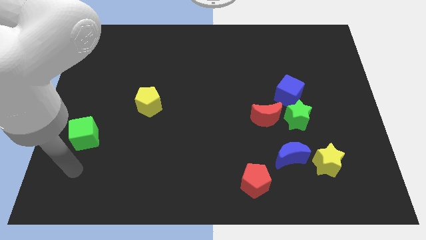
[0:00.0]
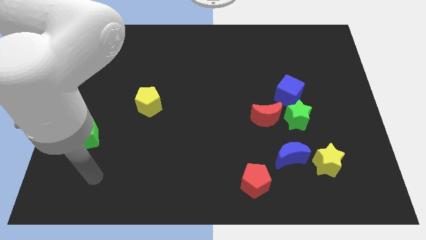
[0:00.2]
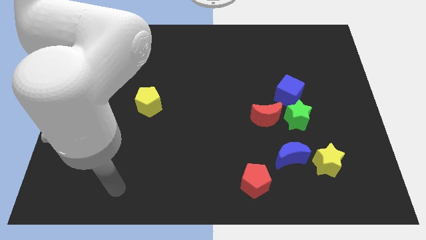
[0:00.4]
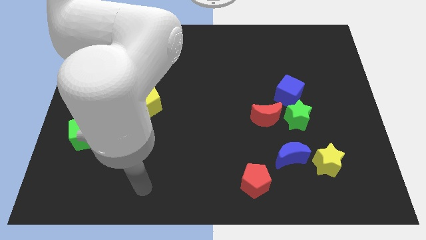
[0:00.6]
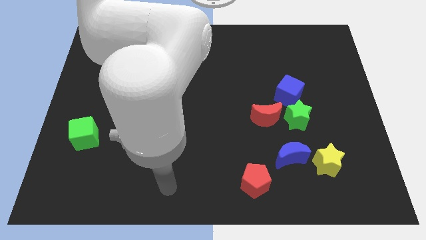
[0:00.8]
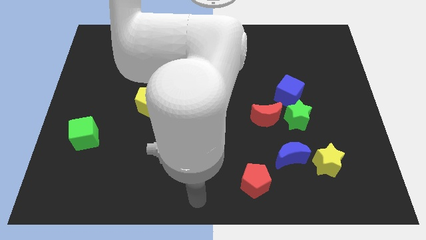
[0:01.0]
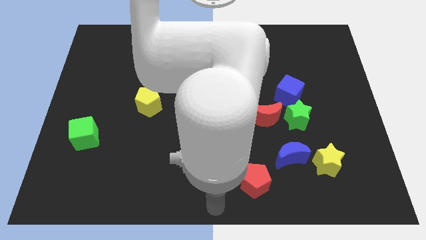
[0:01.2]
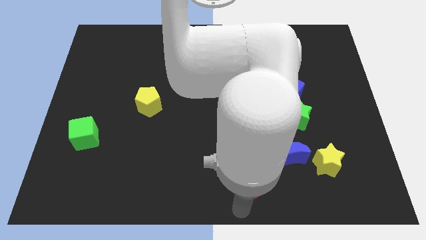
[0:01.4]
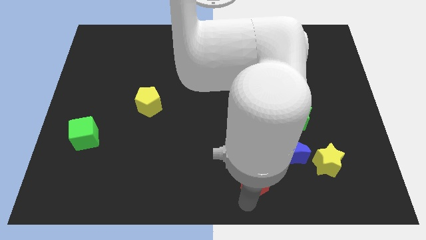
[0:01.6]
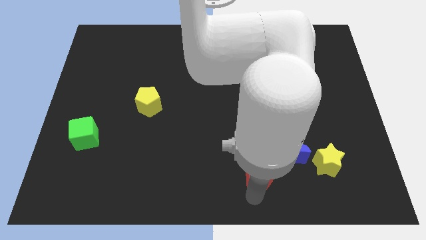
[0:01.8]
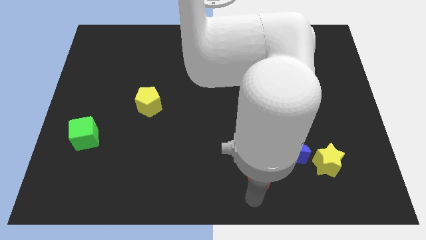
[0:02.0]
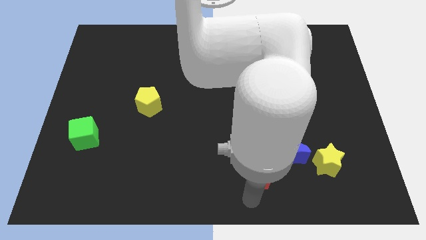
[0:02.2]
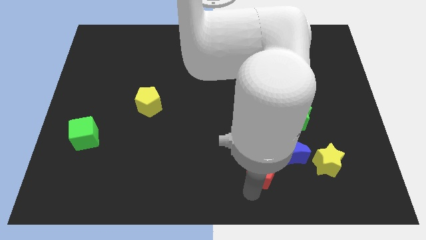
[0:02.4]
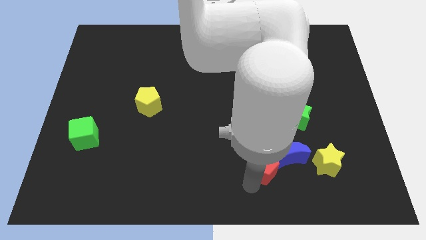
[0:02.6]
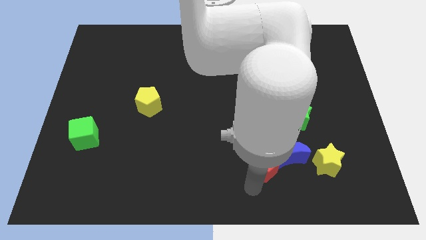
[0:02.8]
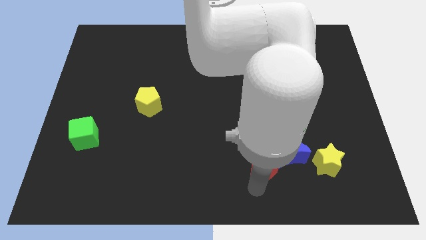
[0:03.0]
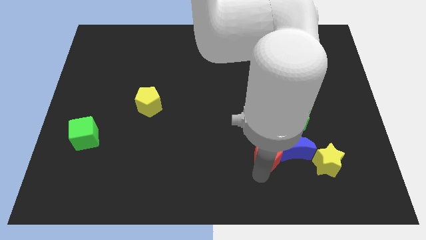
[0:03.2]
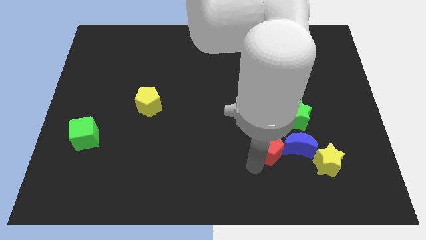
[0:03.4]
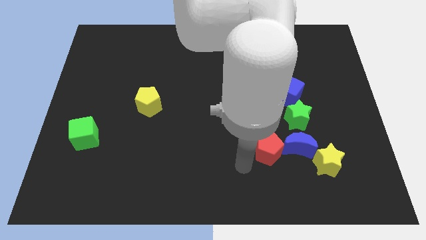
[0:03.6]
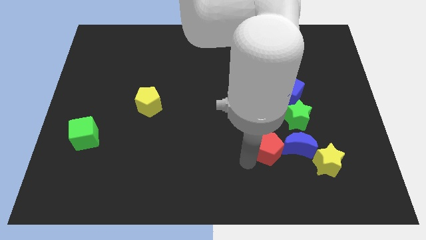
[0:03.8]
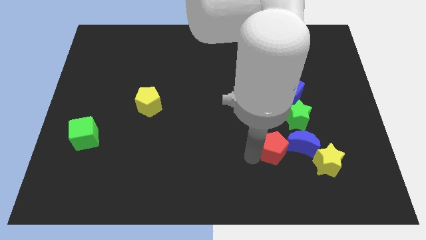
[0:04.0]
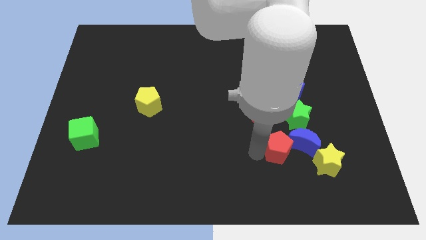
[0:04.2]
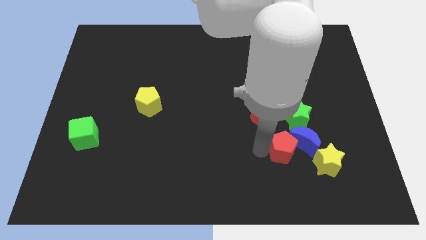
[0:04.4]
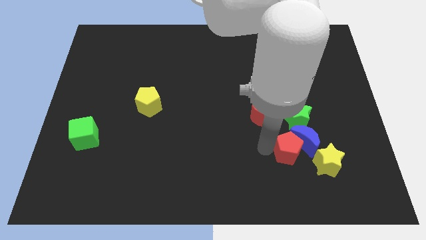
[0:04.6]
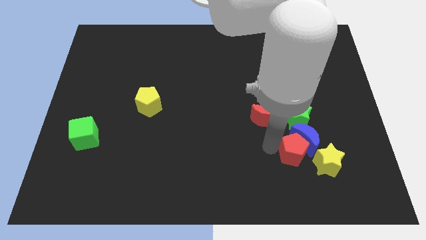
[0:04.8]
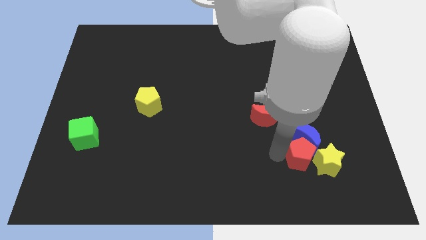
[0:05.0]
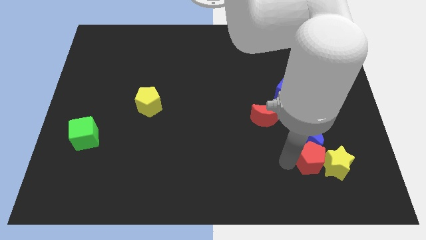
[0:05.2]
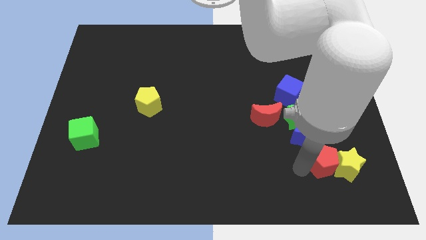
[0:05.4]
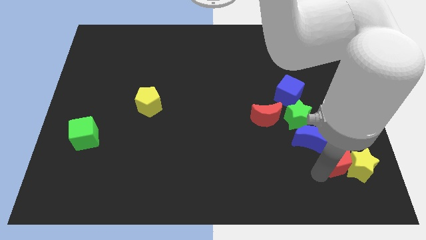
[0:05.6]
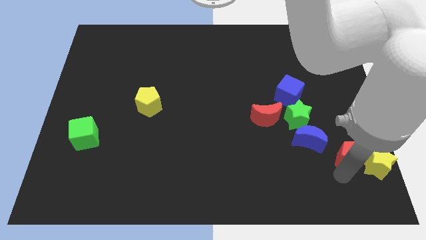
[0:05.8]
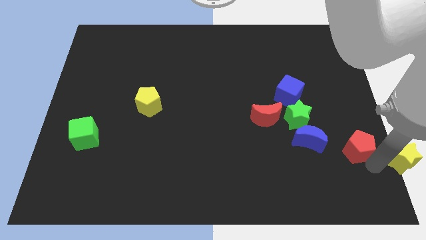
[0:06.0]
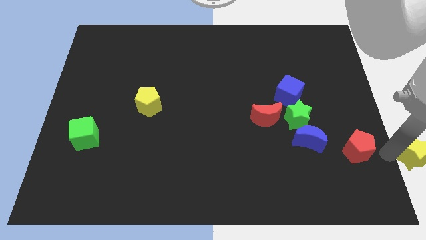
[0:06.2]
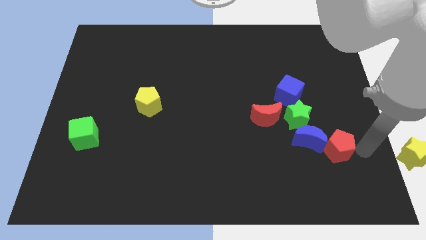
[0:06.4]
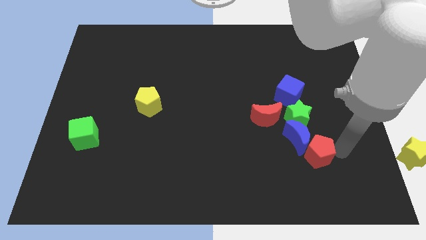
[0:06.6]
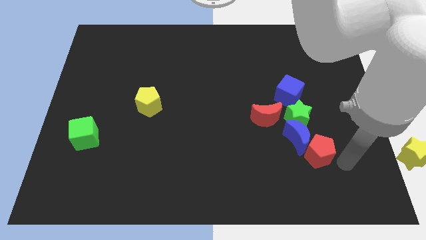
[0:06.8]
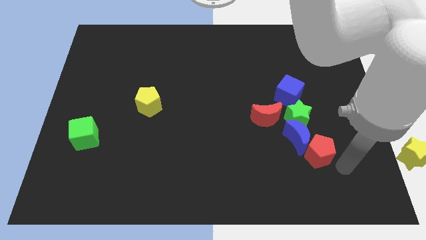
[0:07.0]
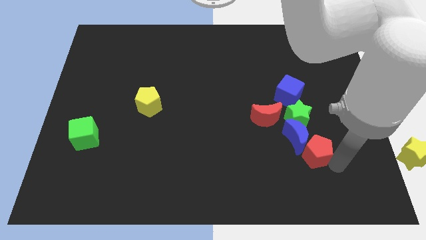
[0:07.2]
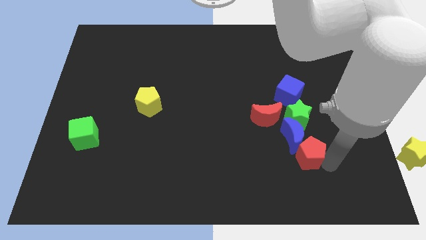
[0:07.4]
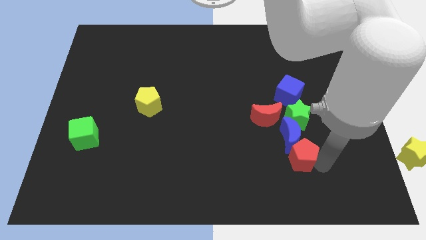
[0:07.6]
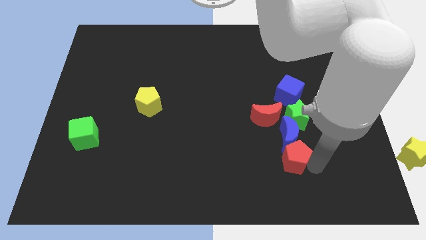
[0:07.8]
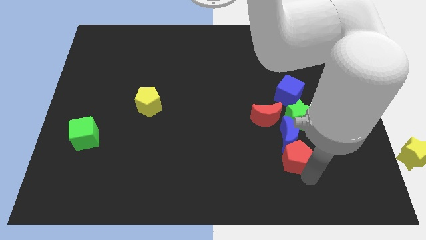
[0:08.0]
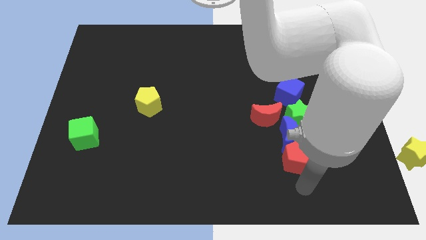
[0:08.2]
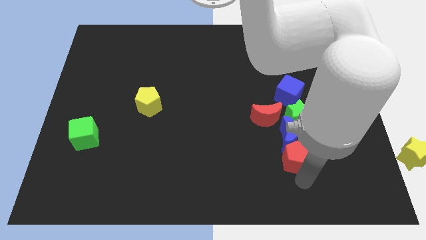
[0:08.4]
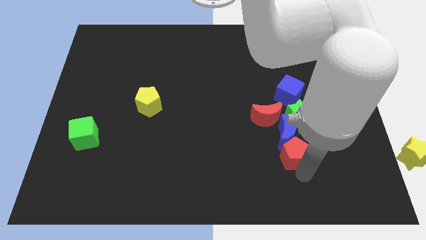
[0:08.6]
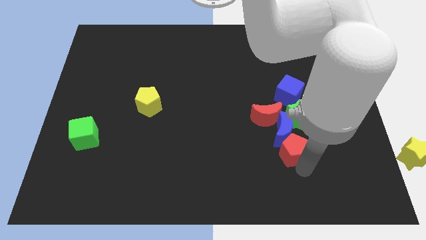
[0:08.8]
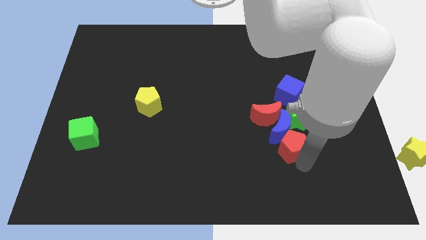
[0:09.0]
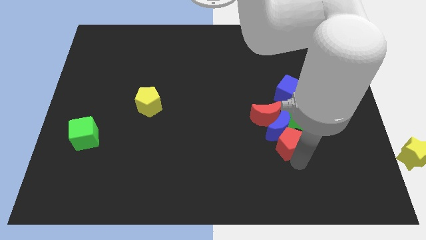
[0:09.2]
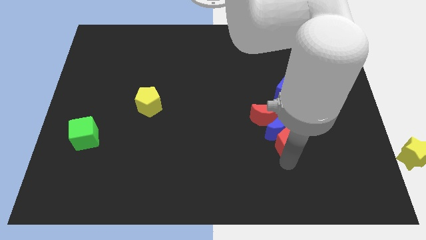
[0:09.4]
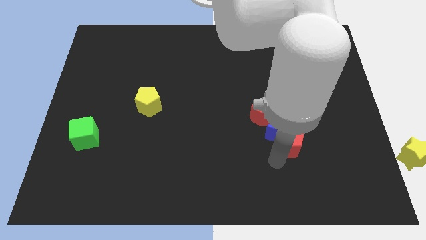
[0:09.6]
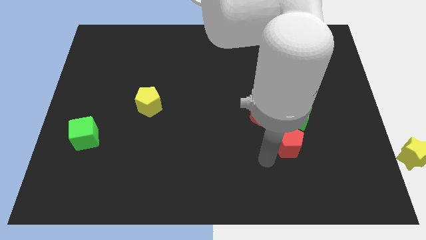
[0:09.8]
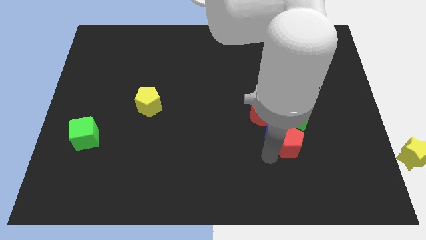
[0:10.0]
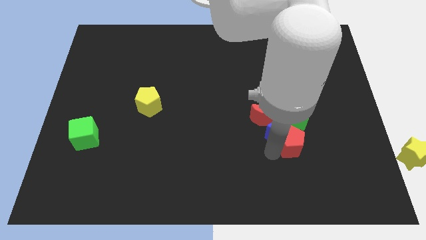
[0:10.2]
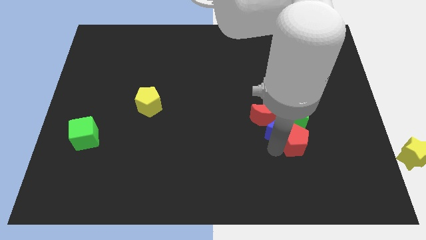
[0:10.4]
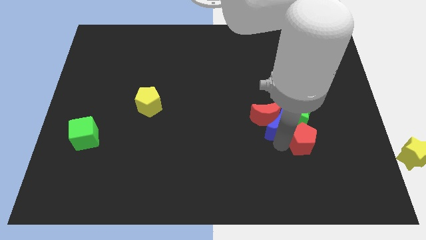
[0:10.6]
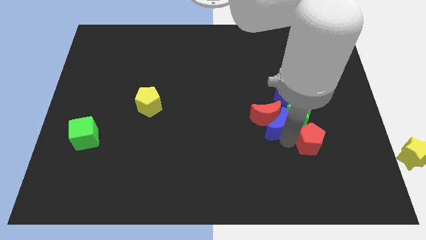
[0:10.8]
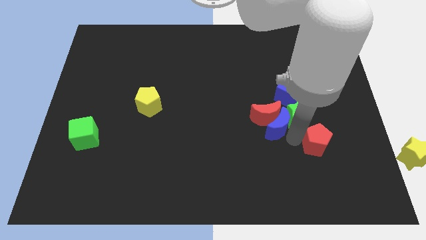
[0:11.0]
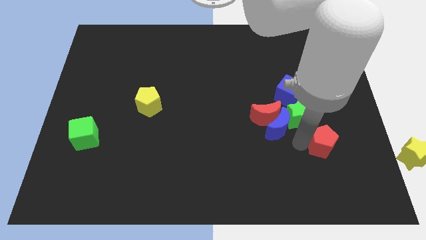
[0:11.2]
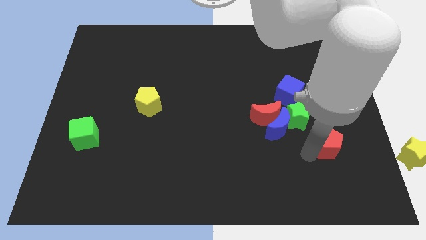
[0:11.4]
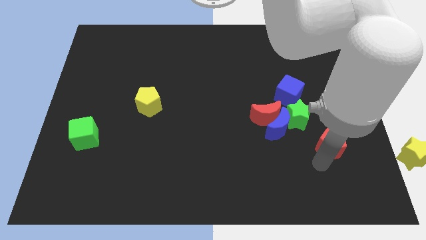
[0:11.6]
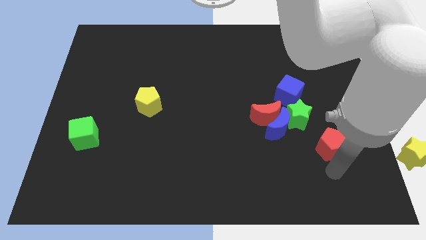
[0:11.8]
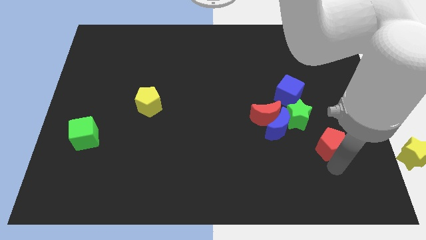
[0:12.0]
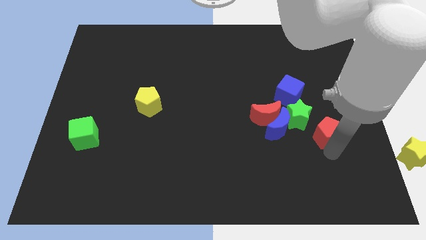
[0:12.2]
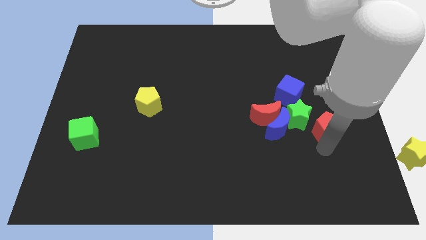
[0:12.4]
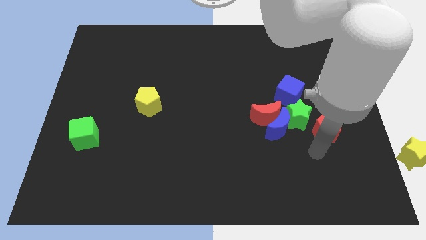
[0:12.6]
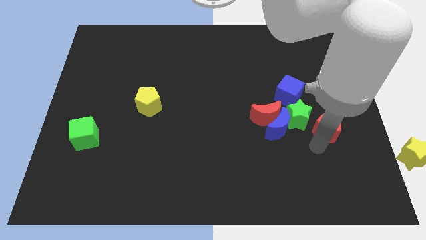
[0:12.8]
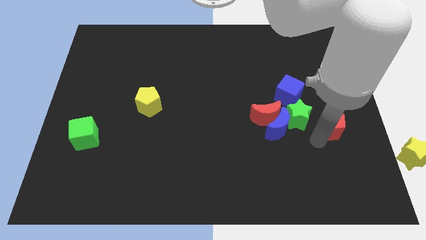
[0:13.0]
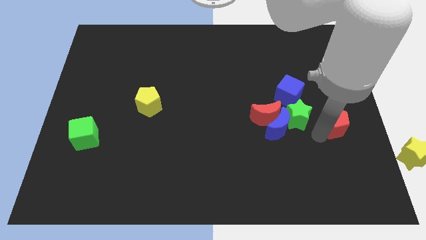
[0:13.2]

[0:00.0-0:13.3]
put the red pentagon to the center right

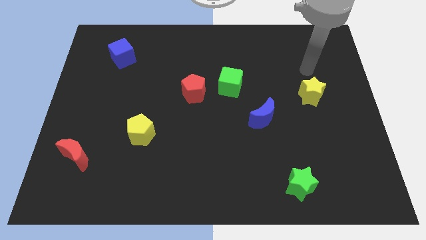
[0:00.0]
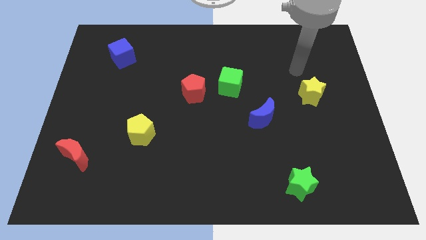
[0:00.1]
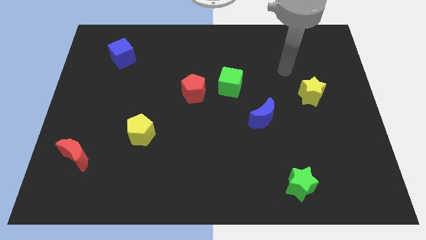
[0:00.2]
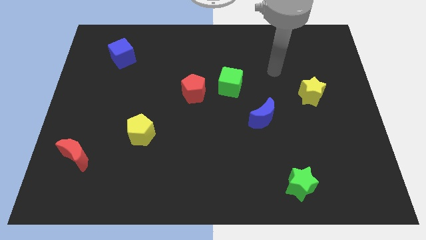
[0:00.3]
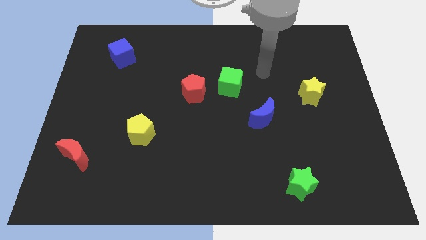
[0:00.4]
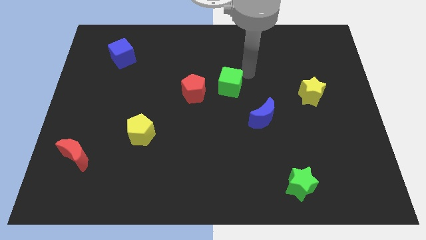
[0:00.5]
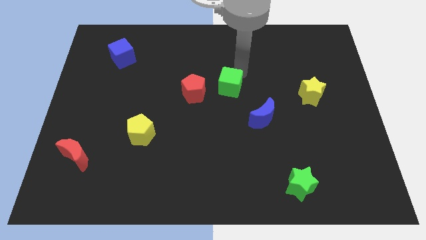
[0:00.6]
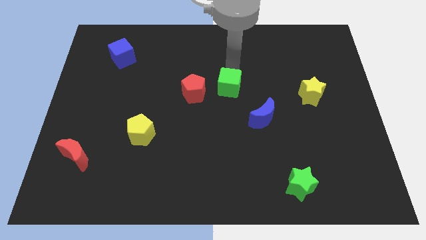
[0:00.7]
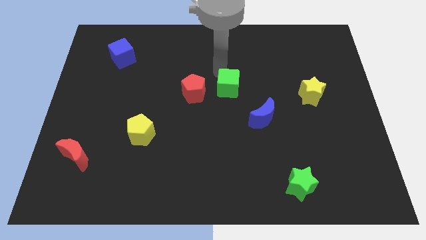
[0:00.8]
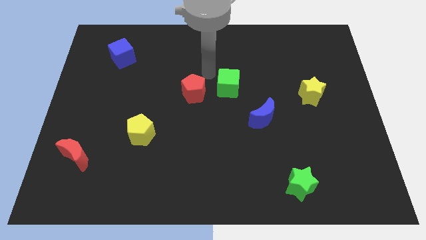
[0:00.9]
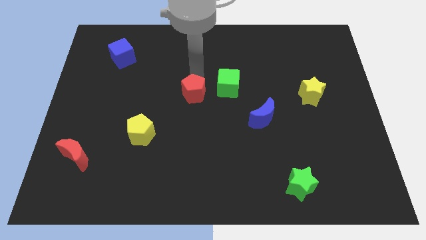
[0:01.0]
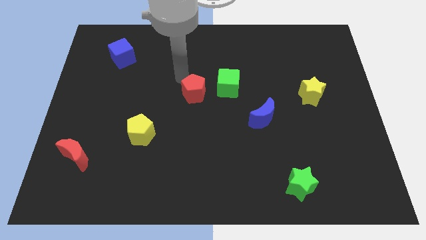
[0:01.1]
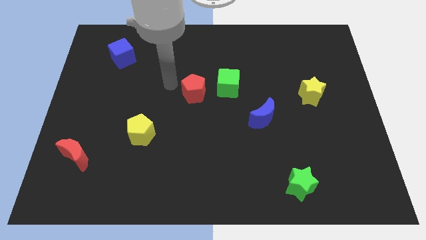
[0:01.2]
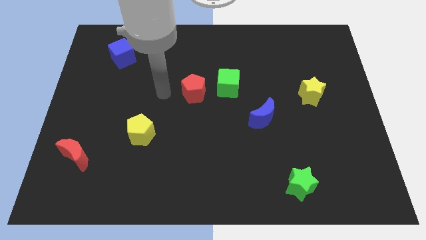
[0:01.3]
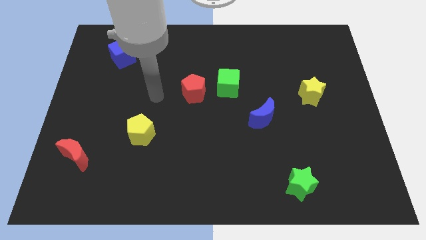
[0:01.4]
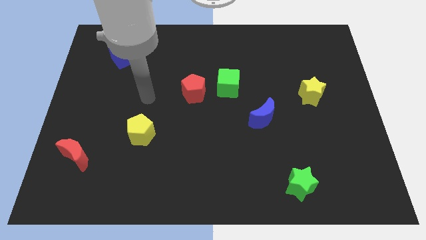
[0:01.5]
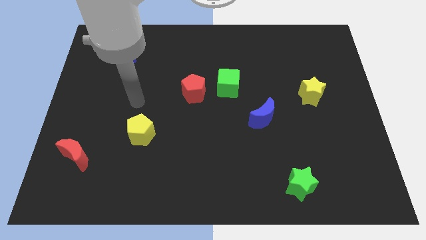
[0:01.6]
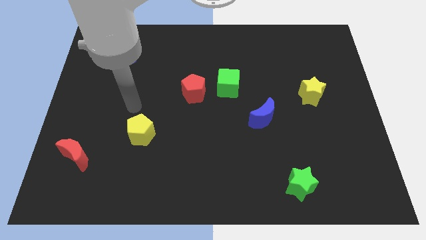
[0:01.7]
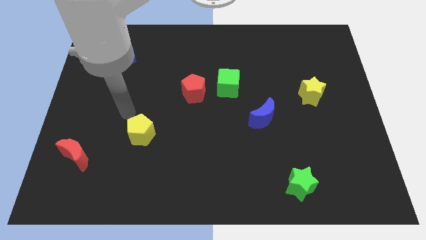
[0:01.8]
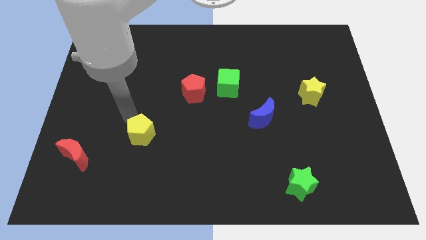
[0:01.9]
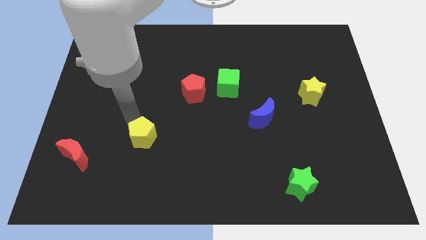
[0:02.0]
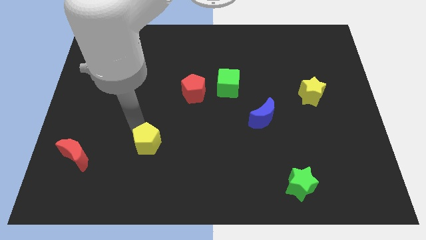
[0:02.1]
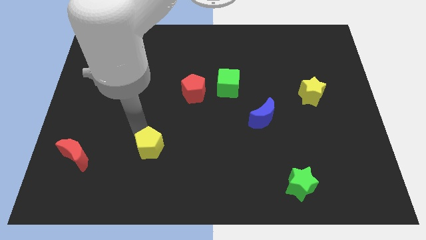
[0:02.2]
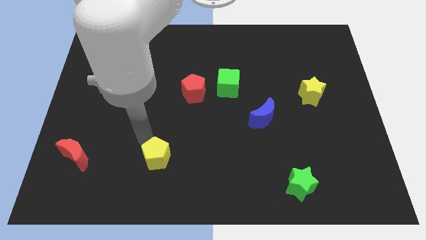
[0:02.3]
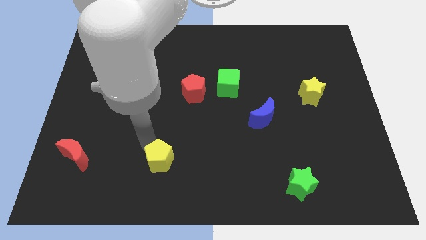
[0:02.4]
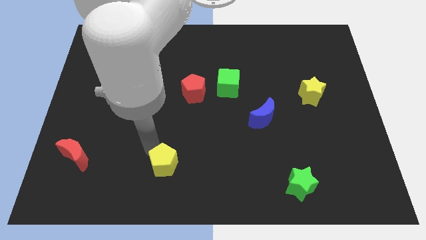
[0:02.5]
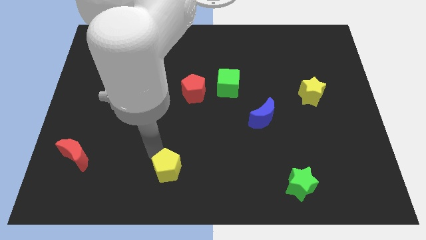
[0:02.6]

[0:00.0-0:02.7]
put the yellow pentagon to the bottom side
